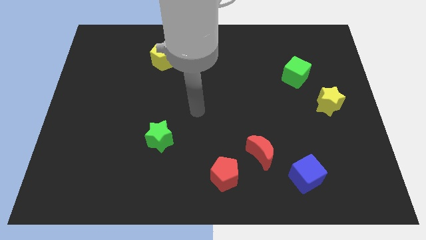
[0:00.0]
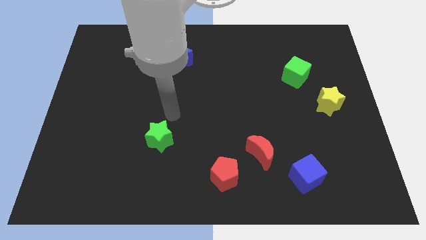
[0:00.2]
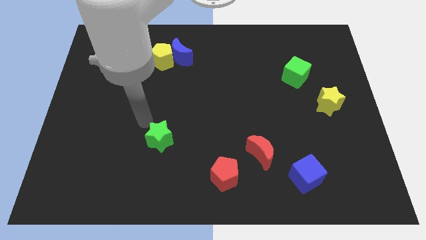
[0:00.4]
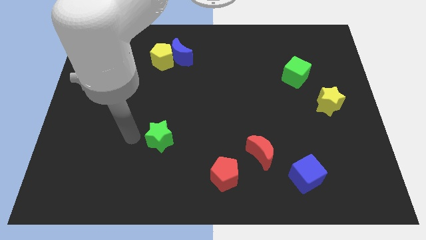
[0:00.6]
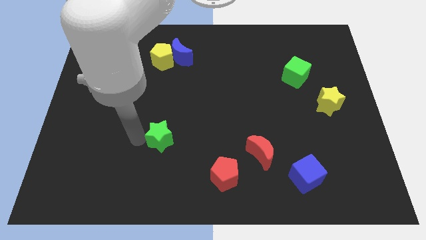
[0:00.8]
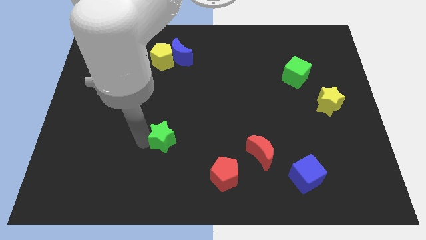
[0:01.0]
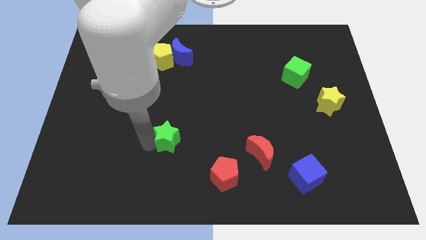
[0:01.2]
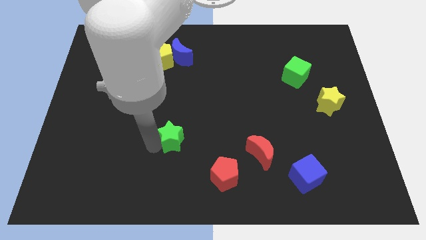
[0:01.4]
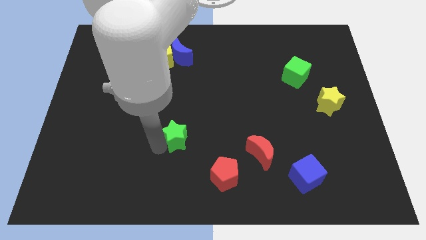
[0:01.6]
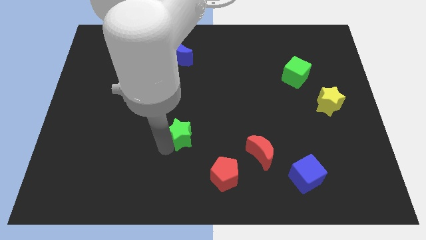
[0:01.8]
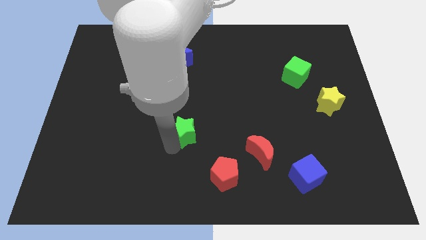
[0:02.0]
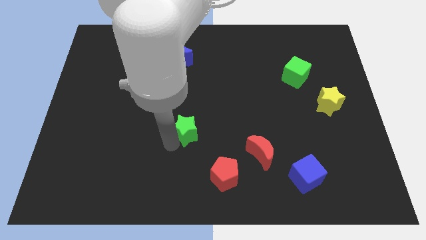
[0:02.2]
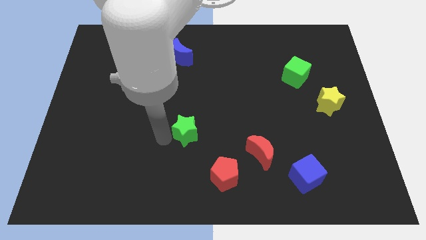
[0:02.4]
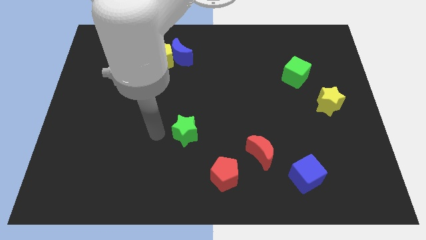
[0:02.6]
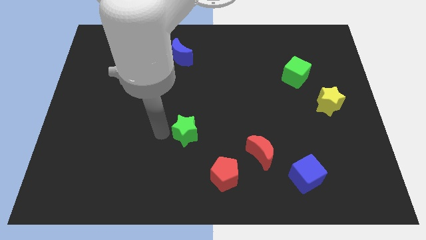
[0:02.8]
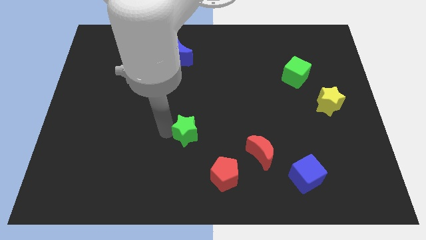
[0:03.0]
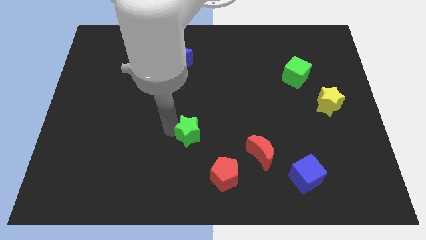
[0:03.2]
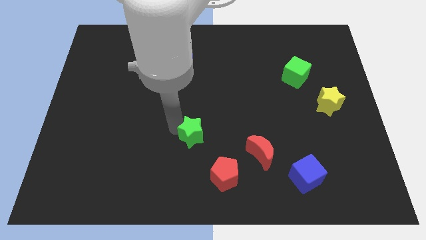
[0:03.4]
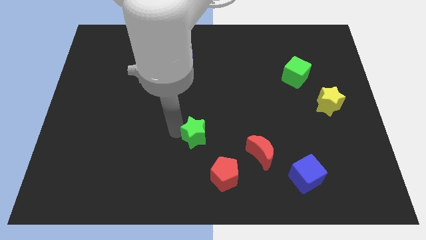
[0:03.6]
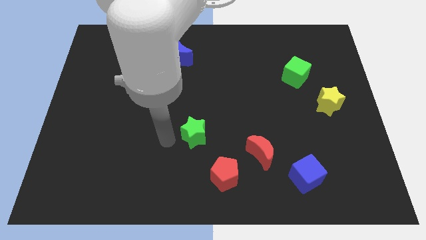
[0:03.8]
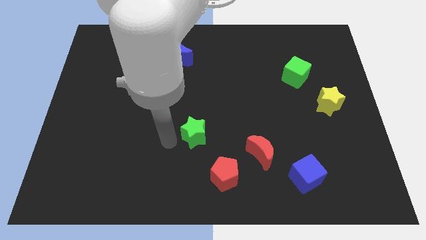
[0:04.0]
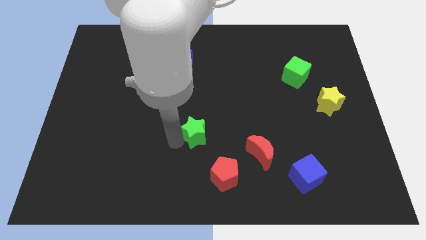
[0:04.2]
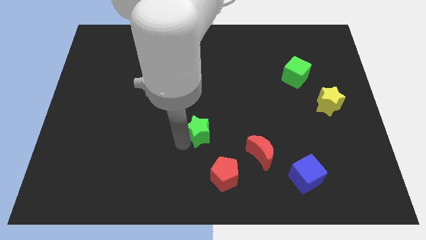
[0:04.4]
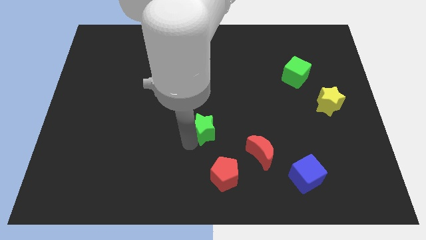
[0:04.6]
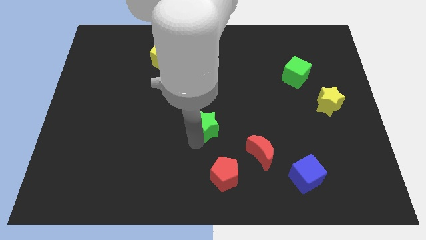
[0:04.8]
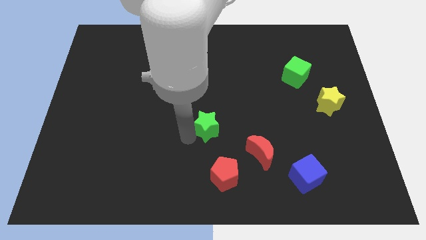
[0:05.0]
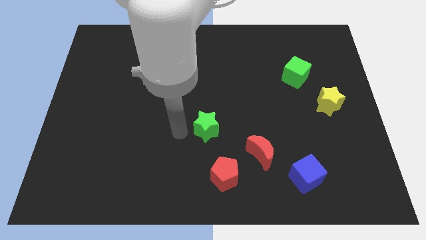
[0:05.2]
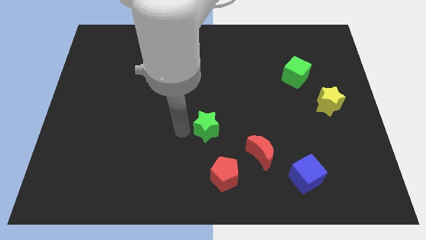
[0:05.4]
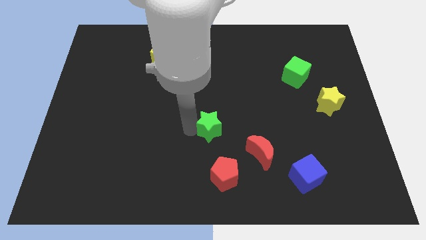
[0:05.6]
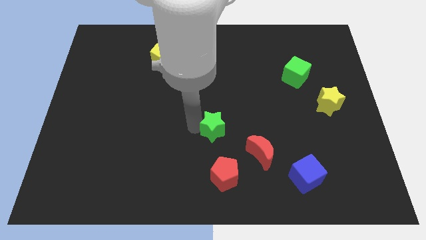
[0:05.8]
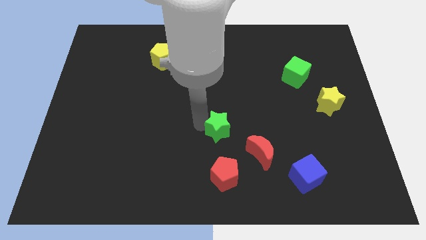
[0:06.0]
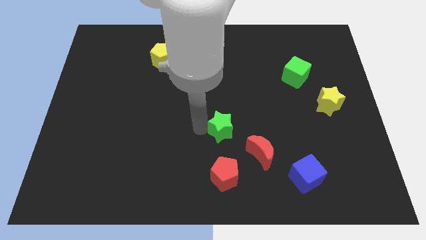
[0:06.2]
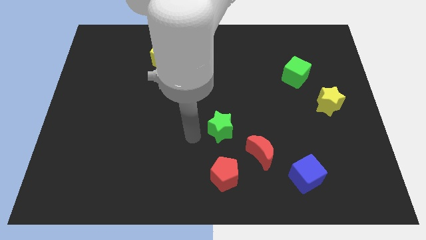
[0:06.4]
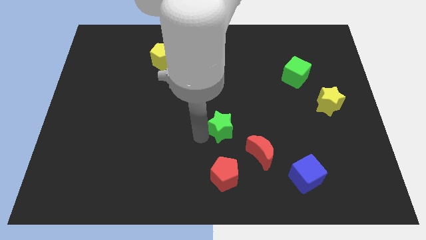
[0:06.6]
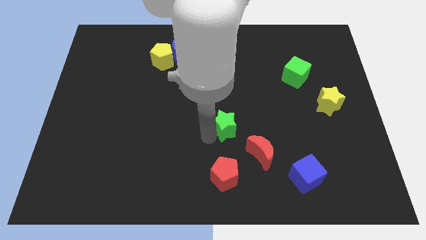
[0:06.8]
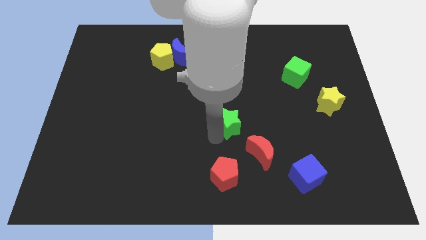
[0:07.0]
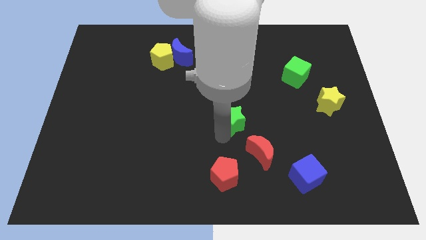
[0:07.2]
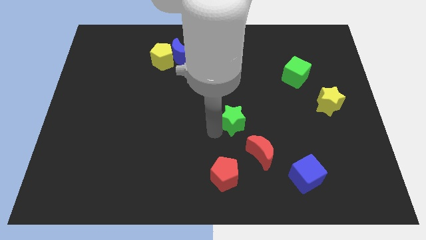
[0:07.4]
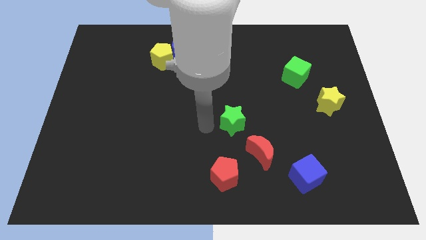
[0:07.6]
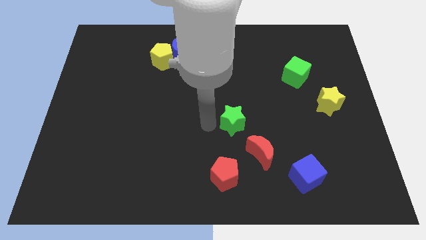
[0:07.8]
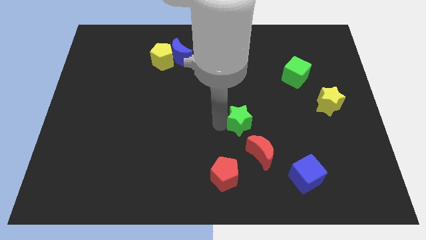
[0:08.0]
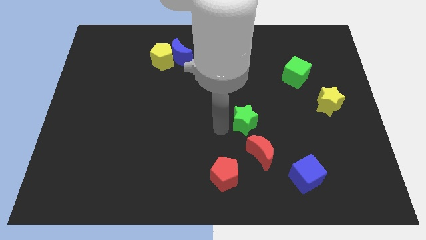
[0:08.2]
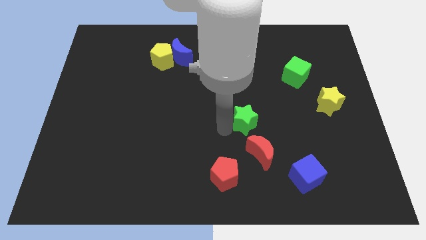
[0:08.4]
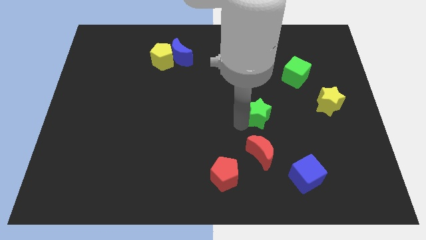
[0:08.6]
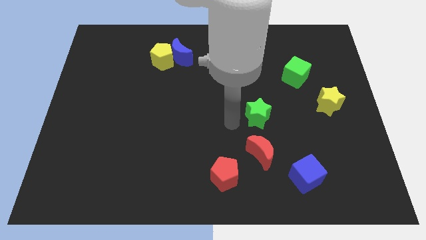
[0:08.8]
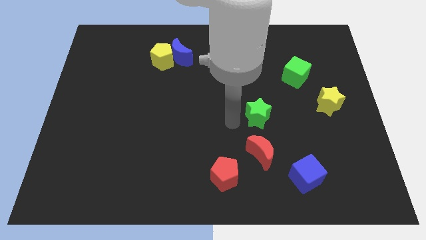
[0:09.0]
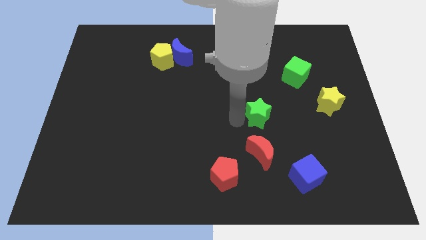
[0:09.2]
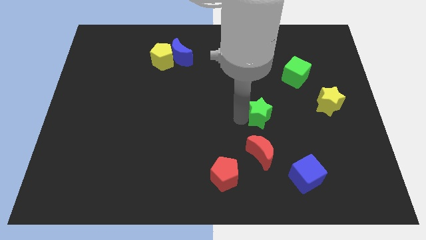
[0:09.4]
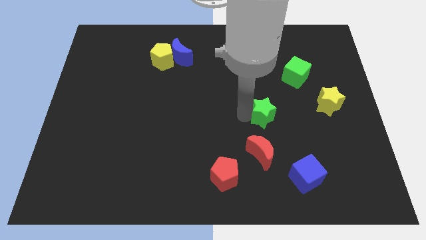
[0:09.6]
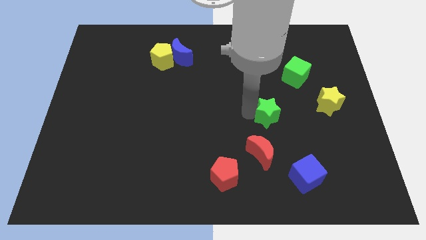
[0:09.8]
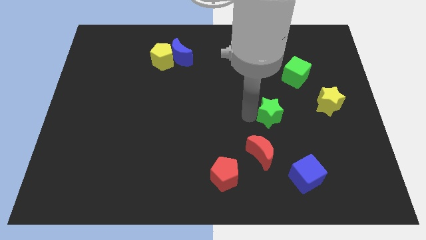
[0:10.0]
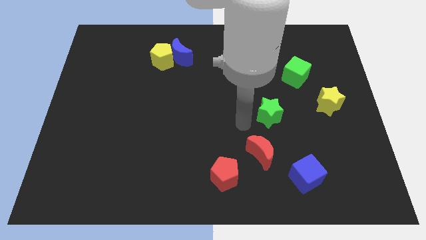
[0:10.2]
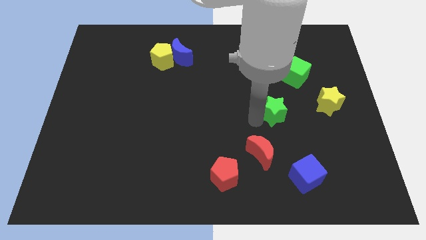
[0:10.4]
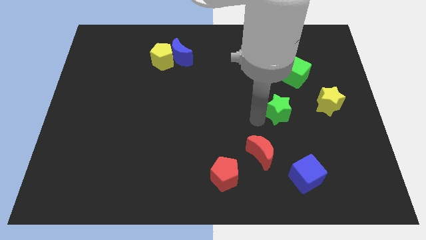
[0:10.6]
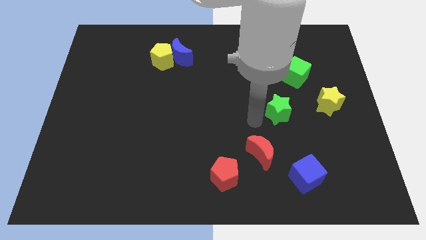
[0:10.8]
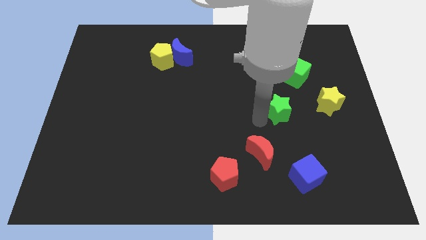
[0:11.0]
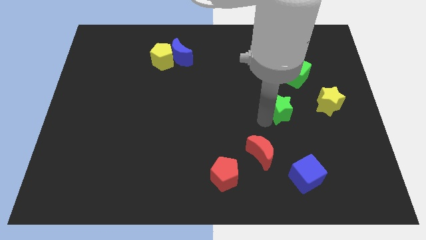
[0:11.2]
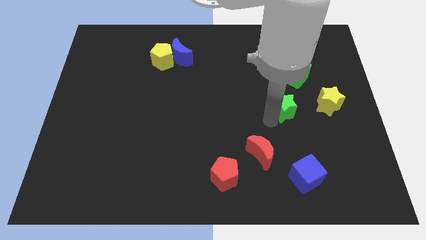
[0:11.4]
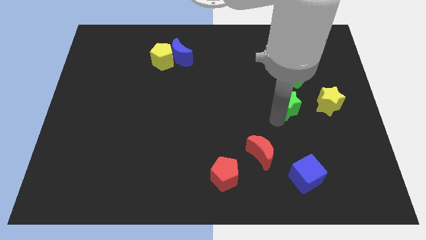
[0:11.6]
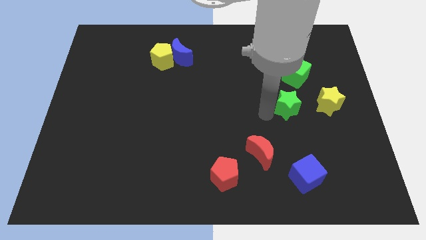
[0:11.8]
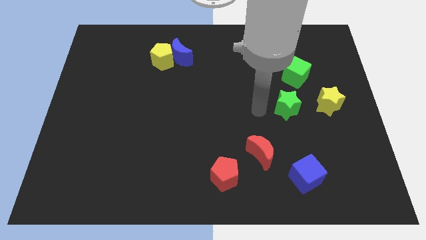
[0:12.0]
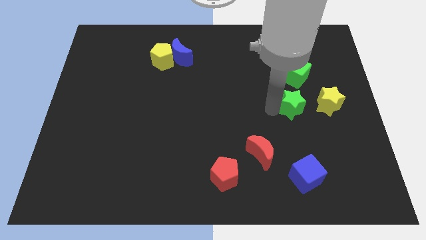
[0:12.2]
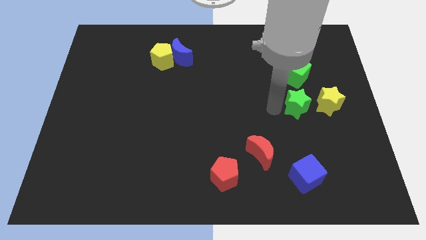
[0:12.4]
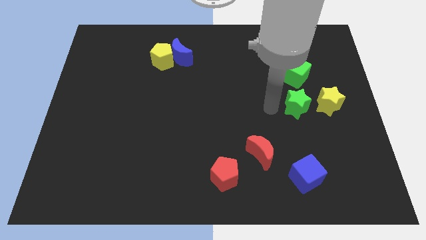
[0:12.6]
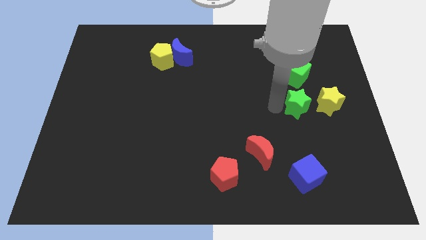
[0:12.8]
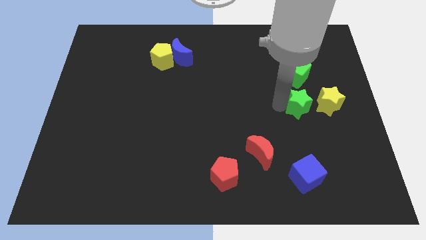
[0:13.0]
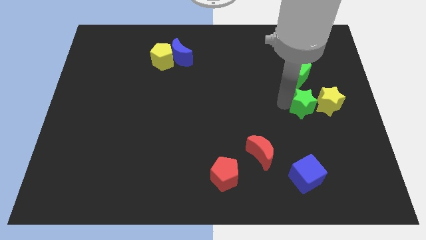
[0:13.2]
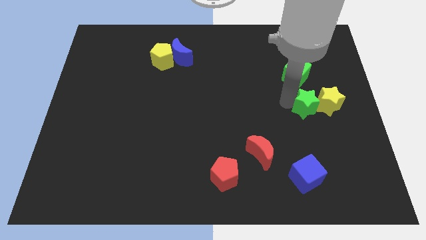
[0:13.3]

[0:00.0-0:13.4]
put the green star to the yellow star

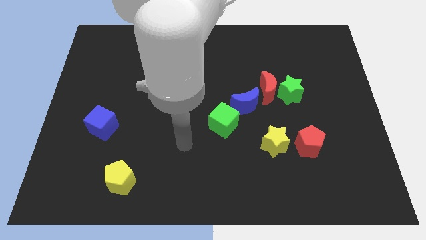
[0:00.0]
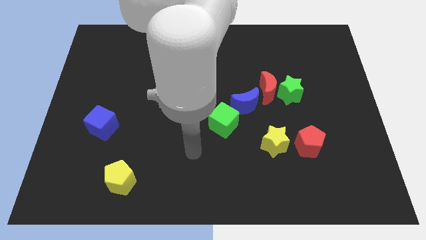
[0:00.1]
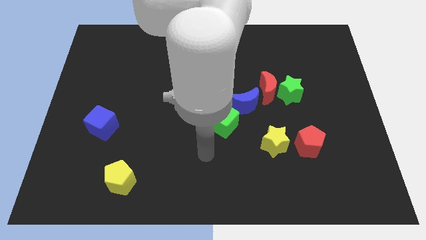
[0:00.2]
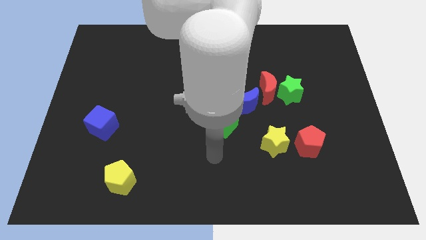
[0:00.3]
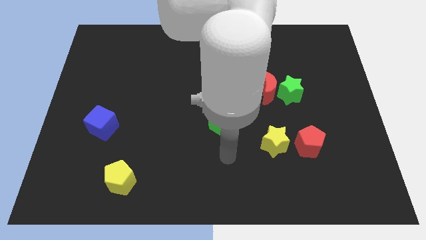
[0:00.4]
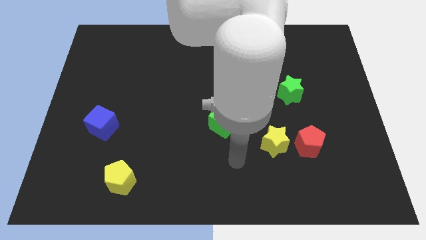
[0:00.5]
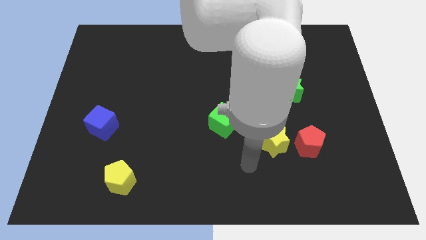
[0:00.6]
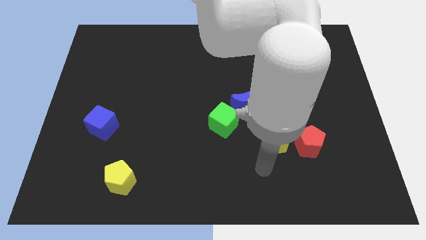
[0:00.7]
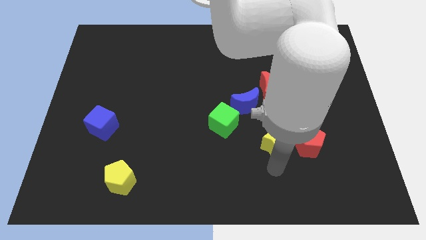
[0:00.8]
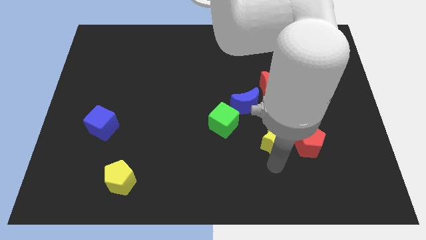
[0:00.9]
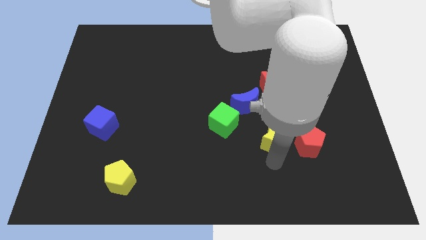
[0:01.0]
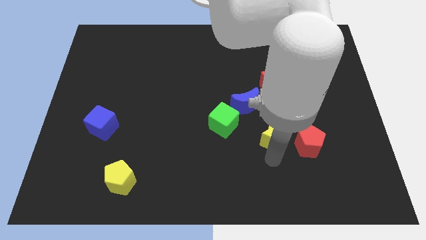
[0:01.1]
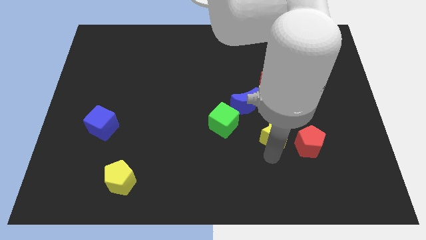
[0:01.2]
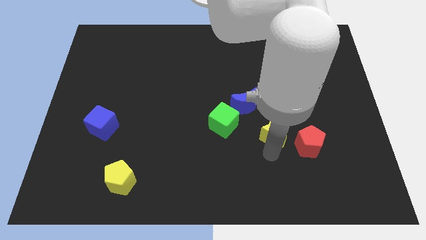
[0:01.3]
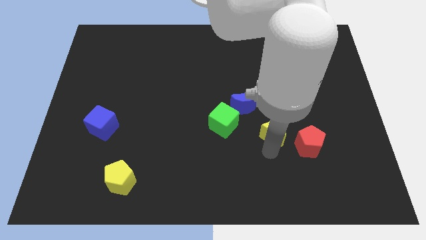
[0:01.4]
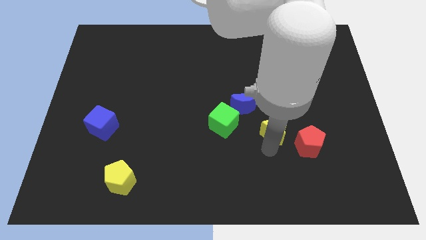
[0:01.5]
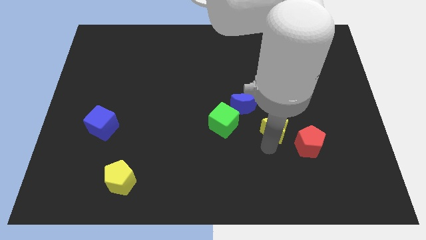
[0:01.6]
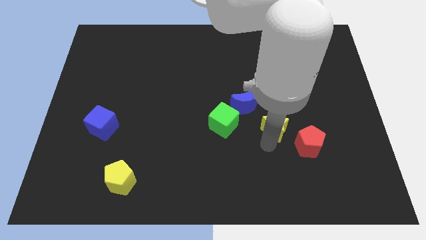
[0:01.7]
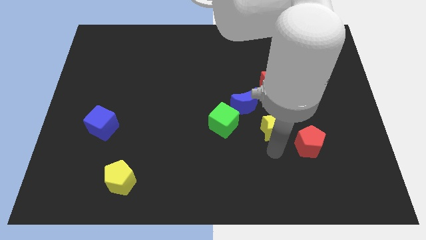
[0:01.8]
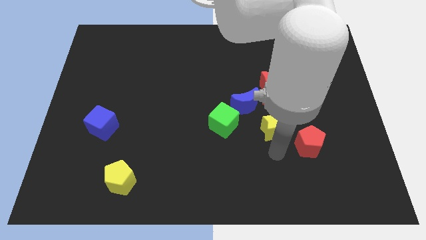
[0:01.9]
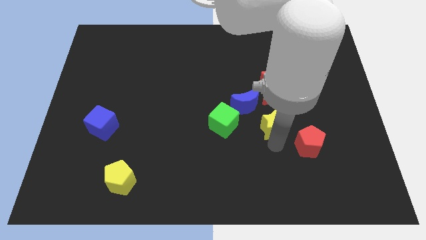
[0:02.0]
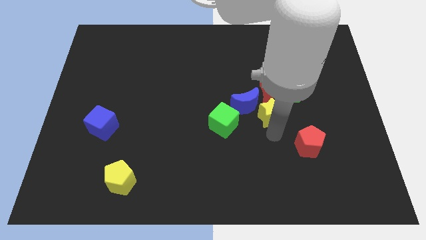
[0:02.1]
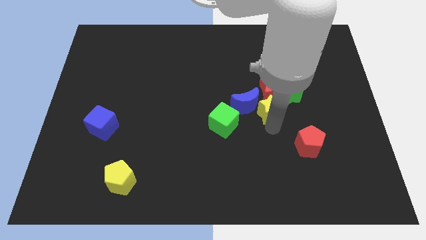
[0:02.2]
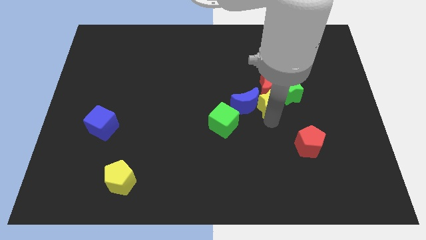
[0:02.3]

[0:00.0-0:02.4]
push the yellow star towards the red moon
